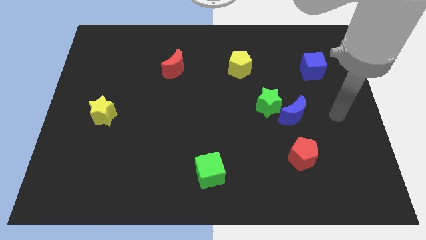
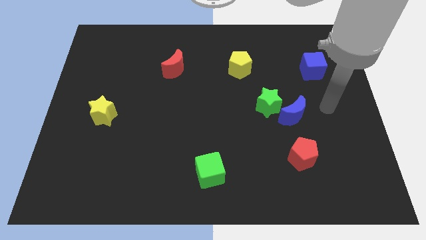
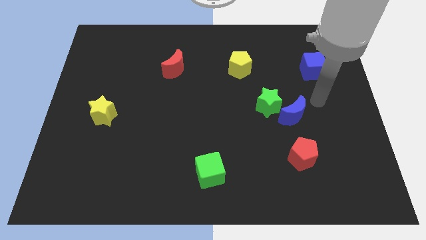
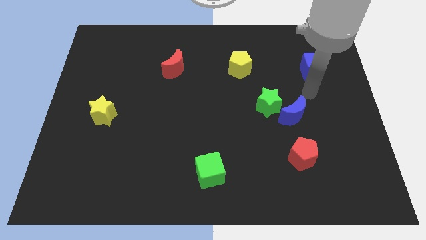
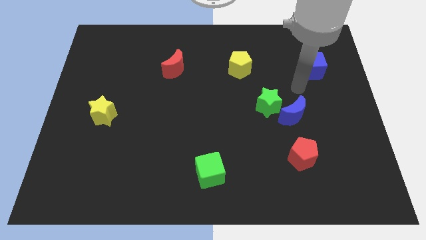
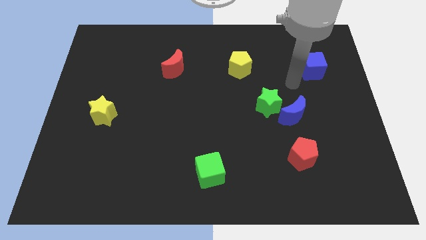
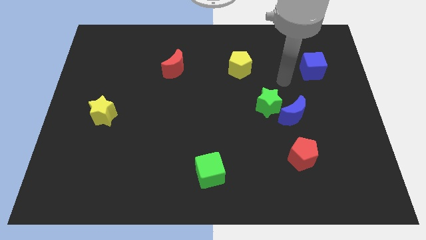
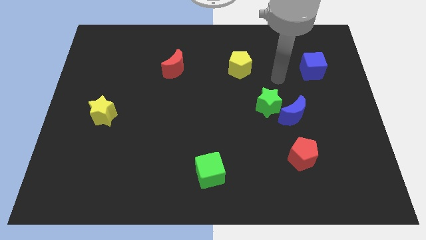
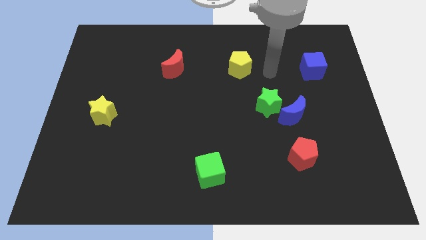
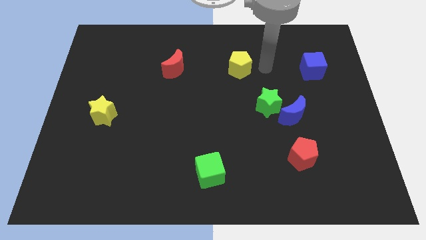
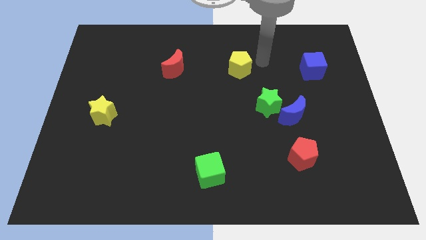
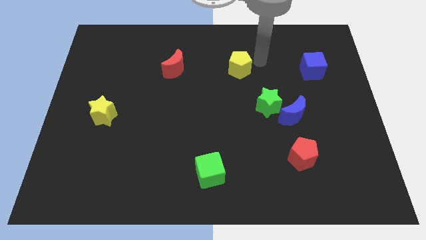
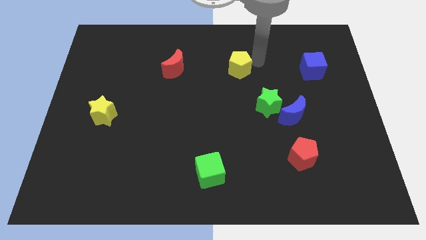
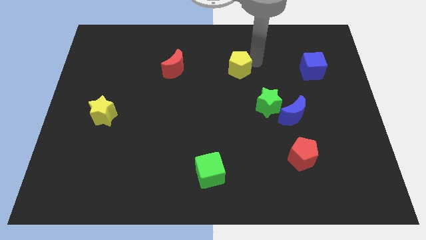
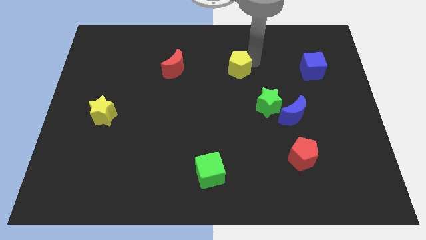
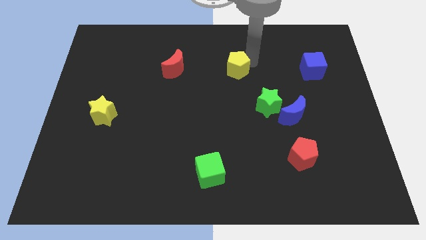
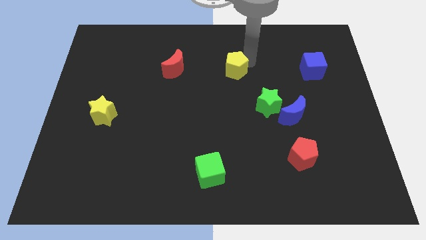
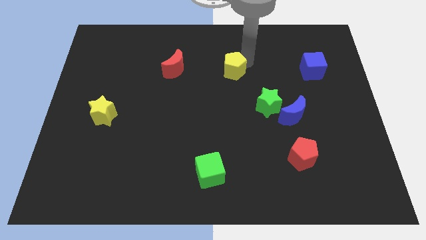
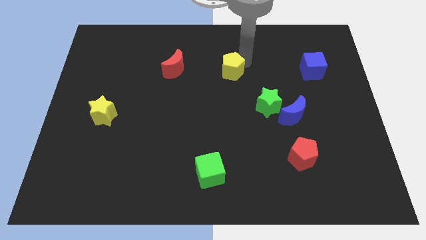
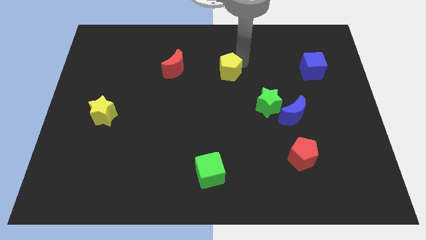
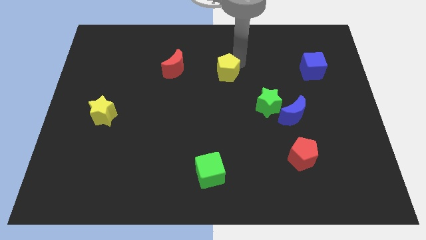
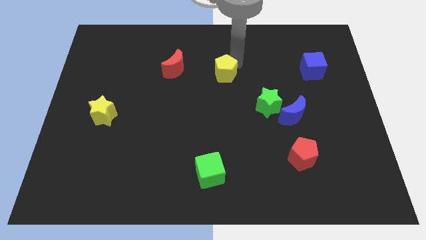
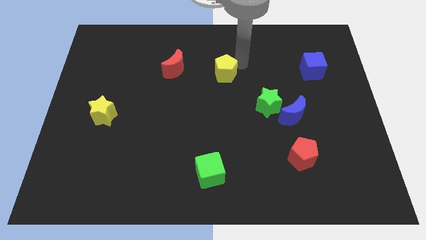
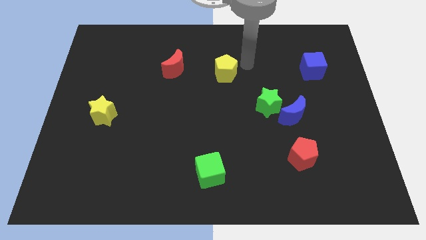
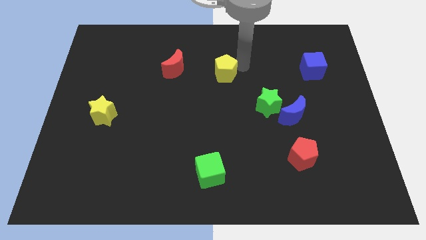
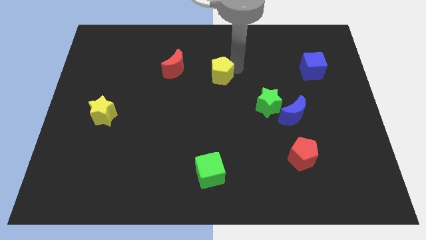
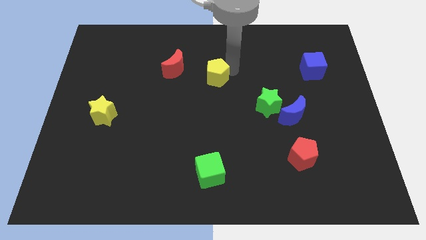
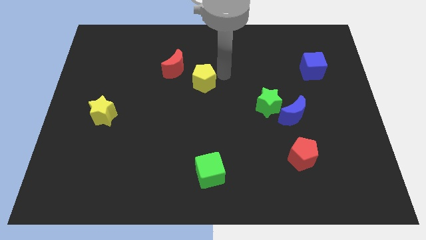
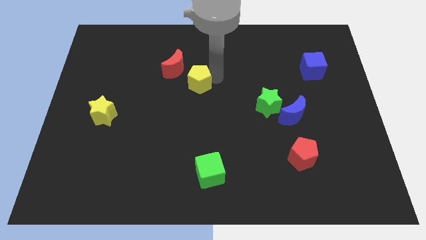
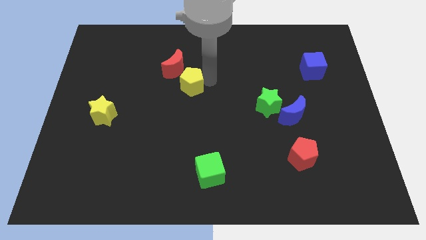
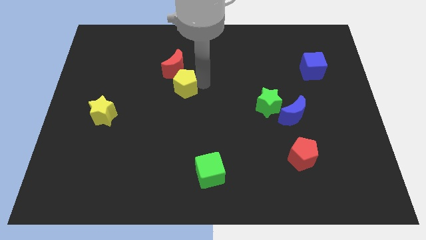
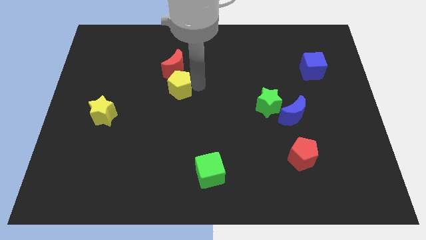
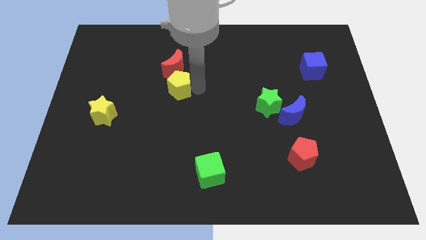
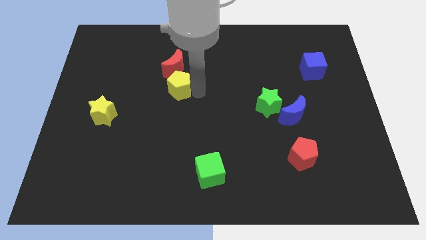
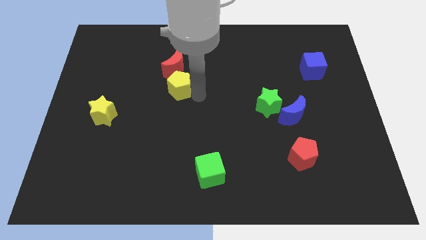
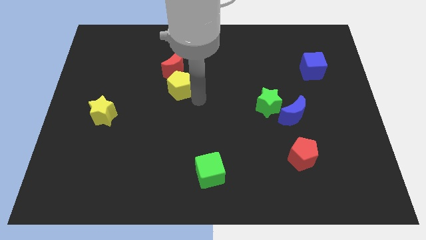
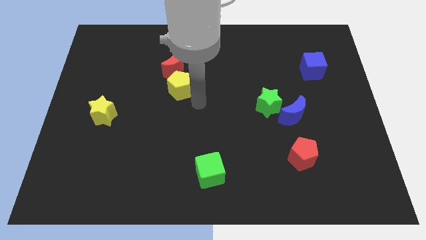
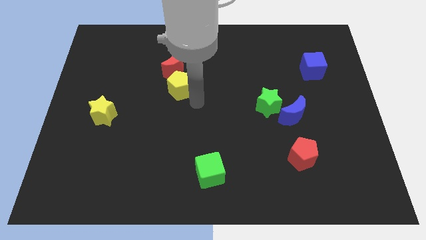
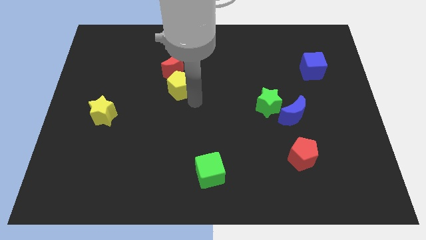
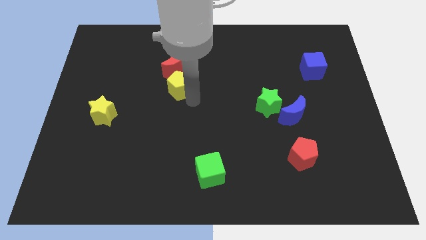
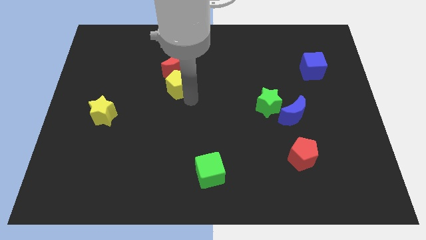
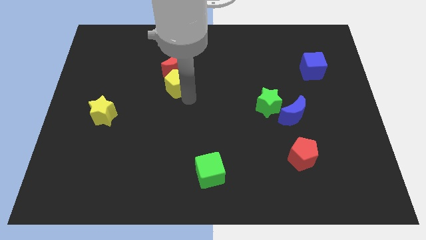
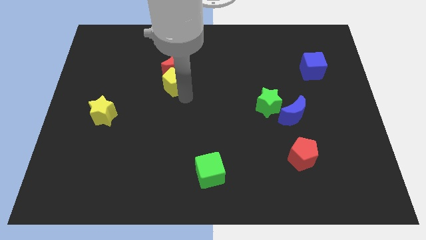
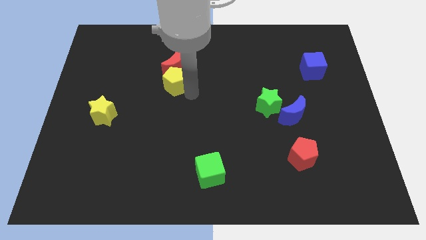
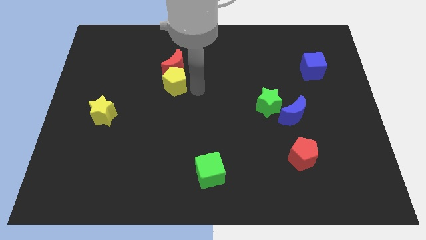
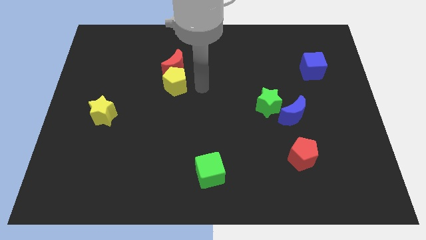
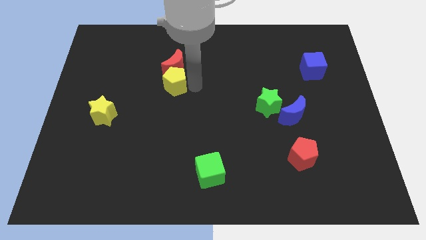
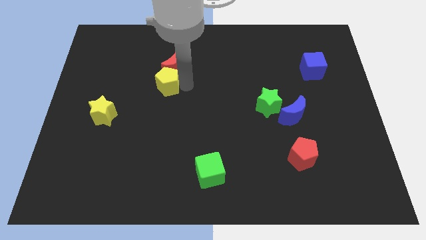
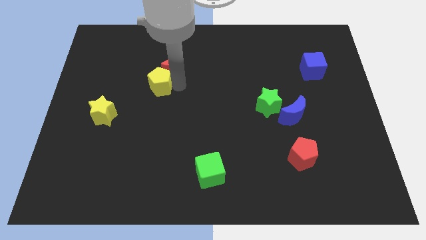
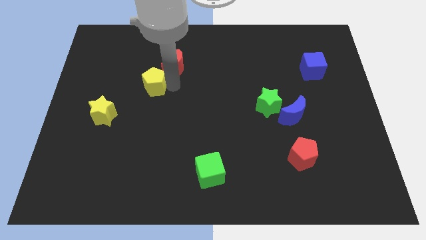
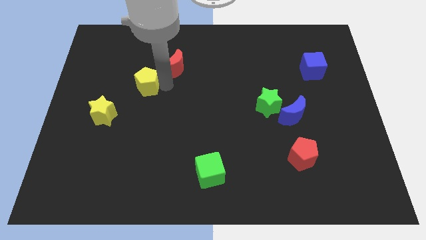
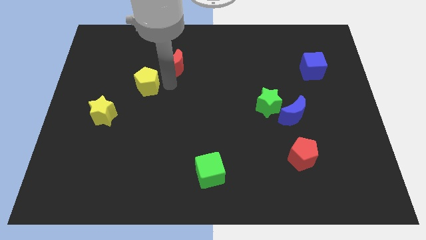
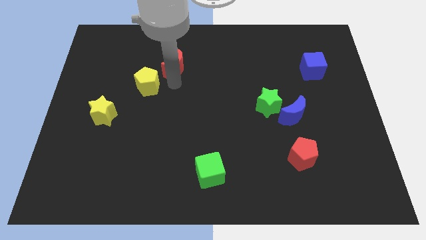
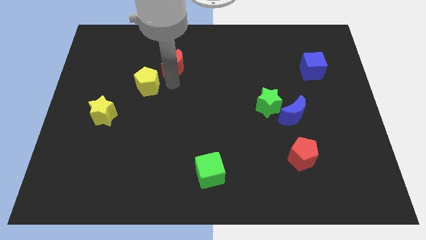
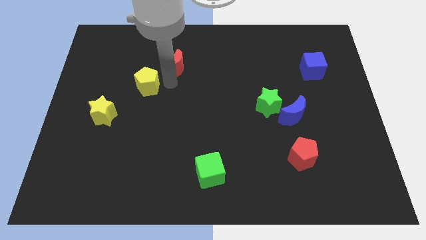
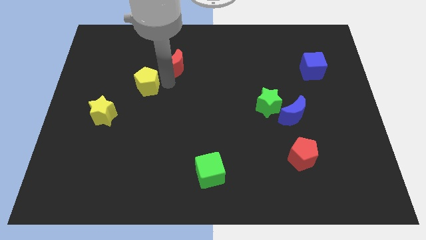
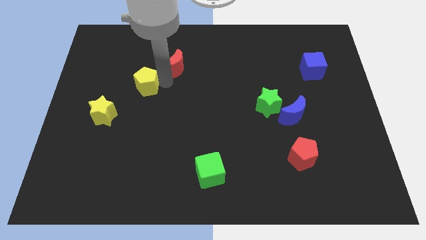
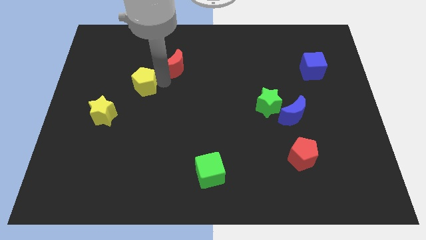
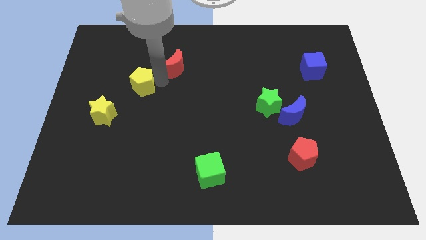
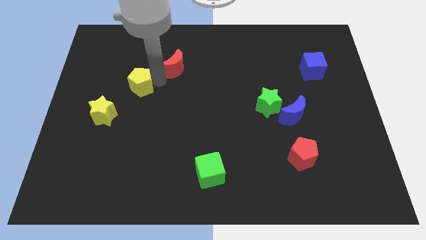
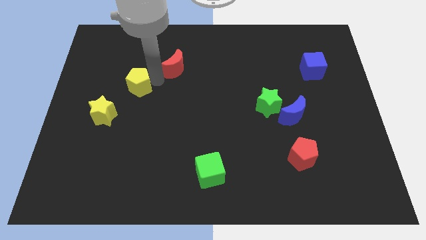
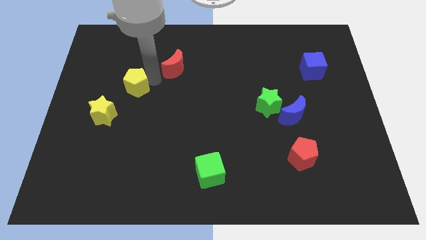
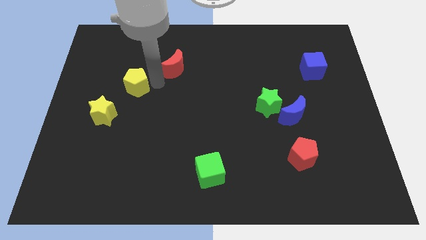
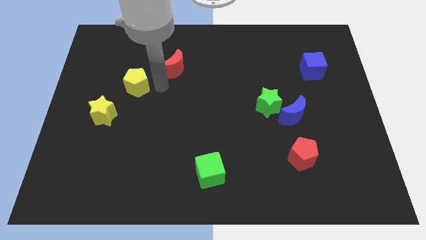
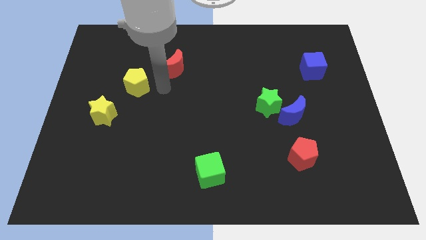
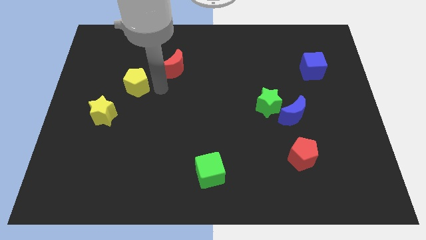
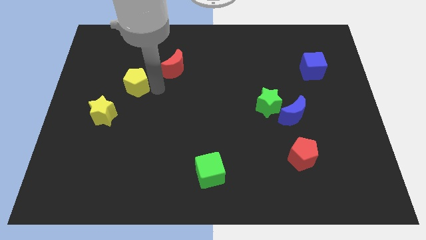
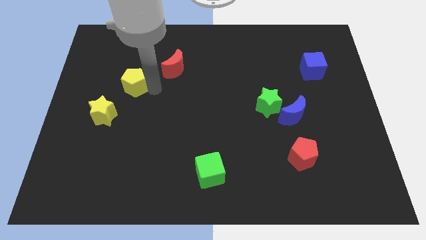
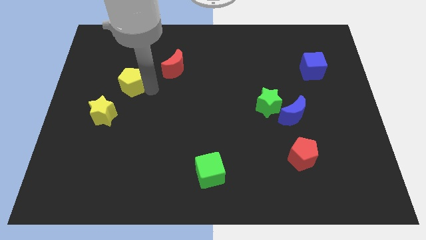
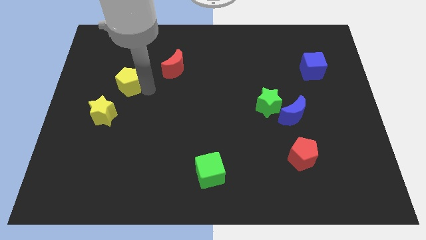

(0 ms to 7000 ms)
slide the yellow pentagon above the yellow star

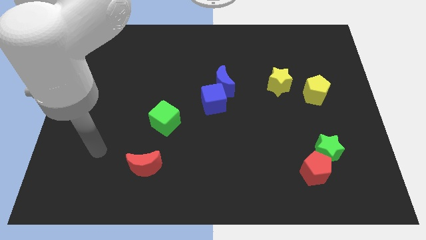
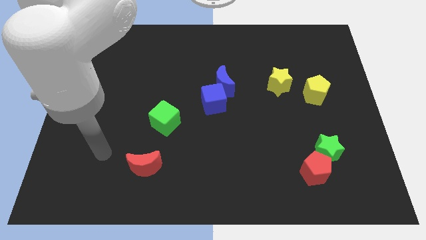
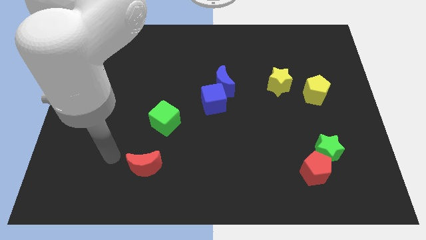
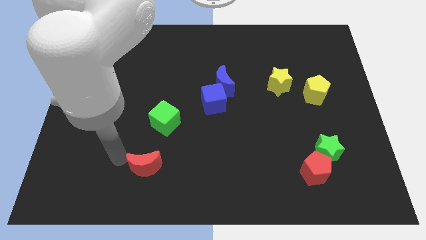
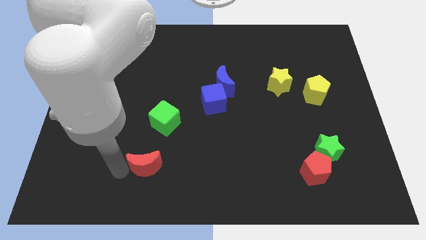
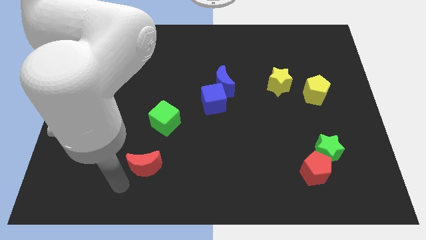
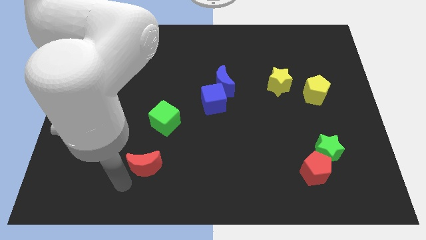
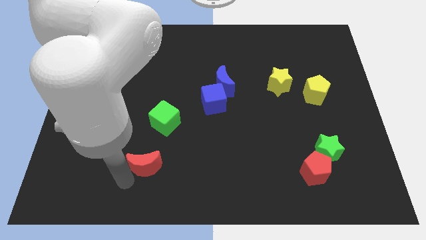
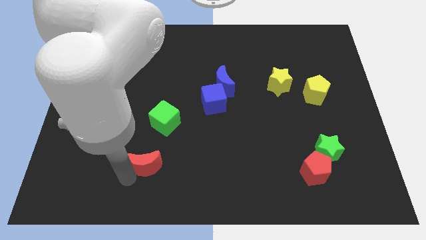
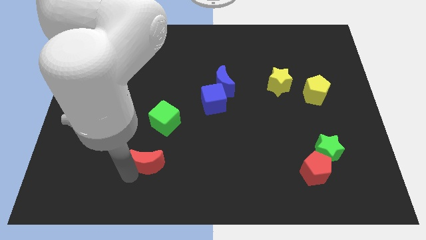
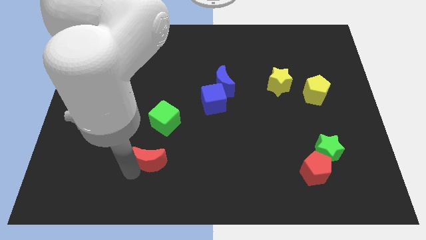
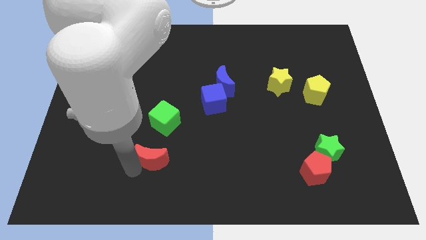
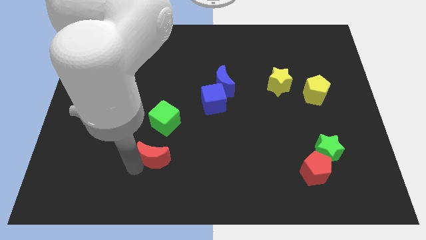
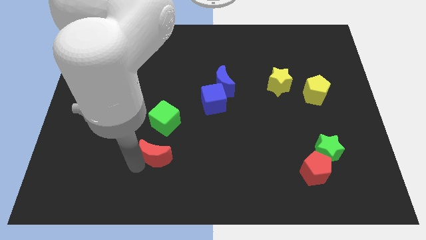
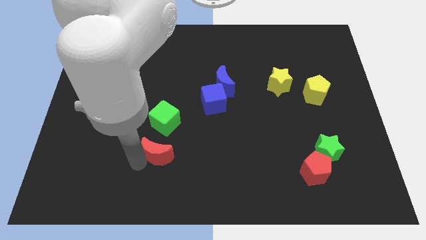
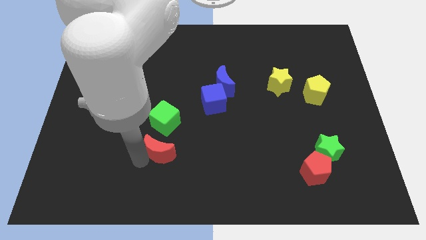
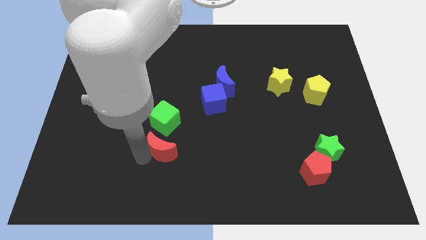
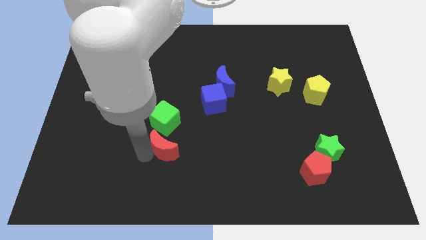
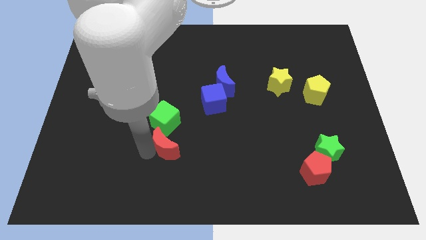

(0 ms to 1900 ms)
push the red moon to the bottom right side of the green cube
